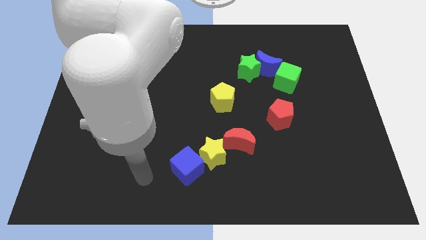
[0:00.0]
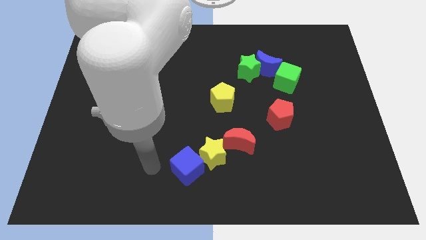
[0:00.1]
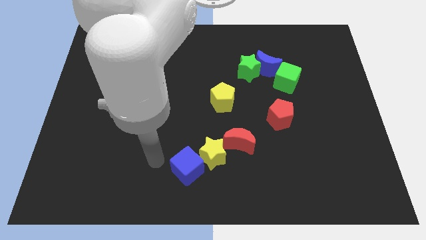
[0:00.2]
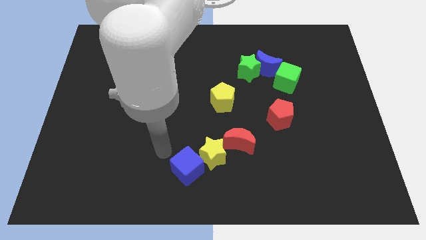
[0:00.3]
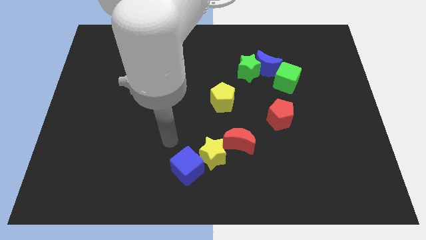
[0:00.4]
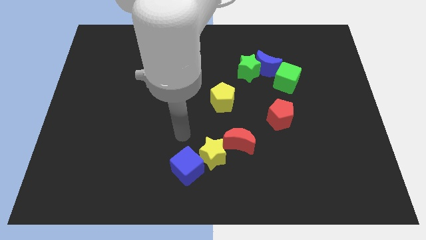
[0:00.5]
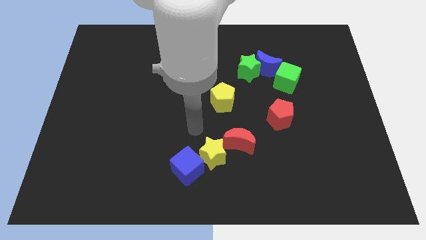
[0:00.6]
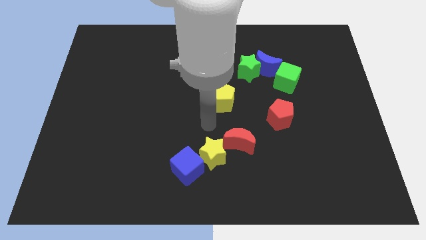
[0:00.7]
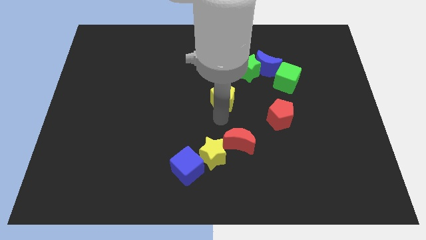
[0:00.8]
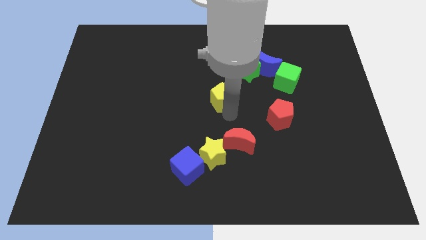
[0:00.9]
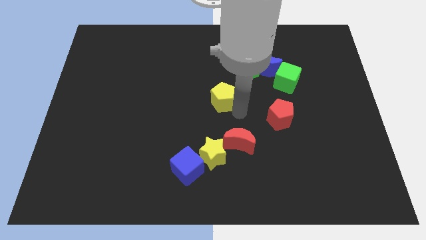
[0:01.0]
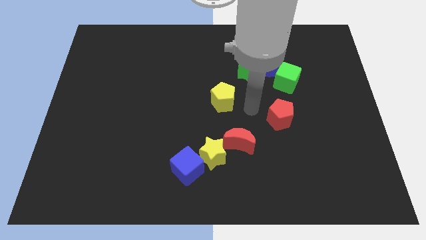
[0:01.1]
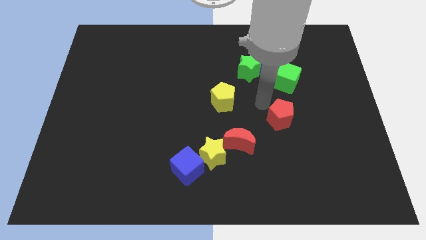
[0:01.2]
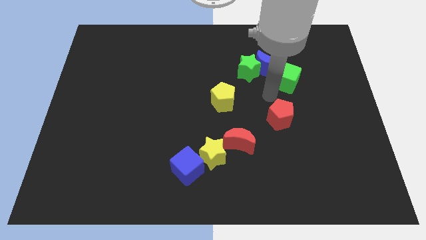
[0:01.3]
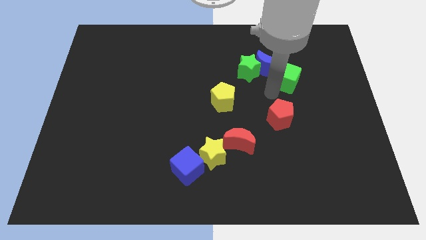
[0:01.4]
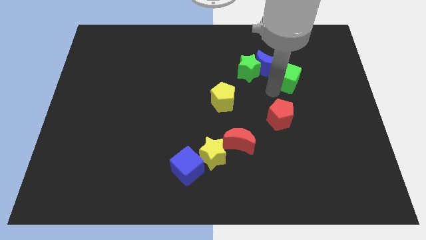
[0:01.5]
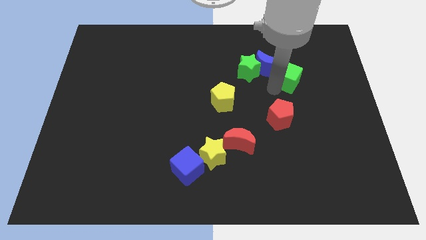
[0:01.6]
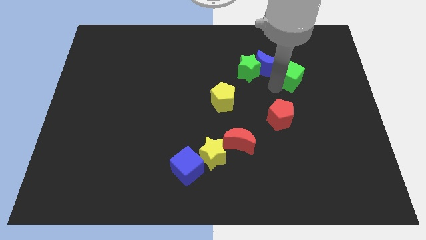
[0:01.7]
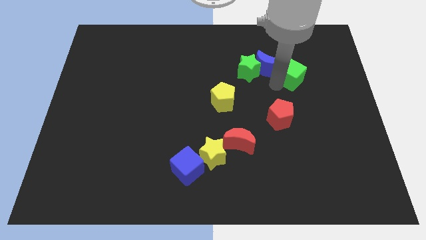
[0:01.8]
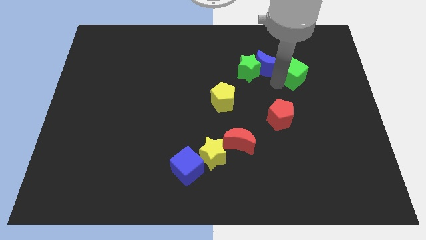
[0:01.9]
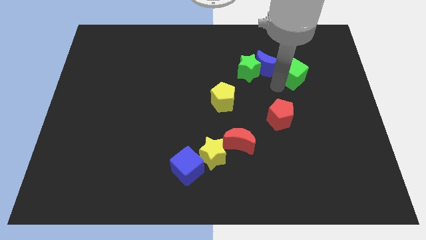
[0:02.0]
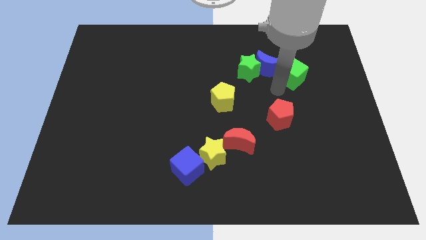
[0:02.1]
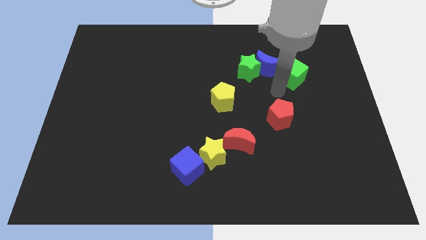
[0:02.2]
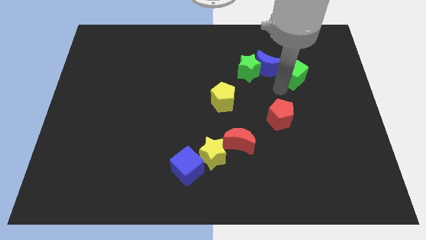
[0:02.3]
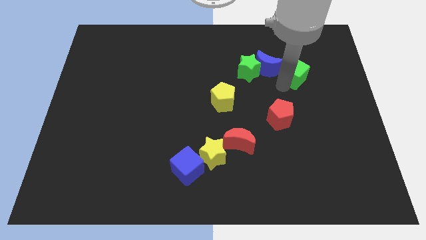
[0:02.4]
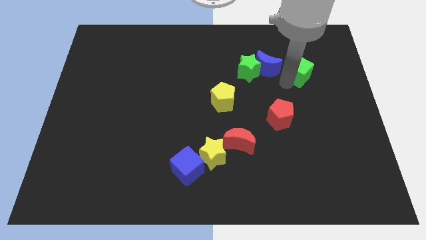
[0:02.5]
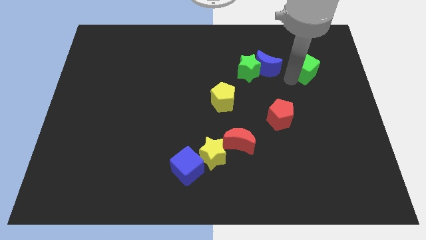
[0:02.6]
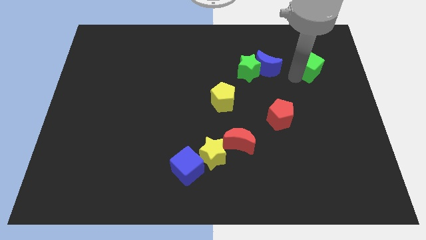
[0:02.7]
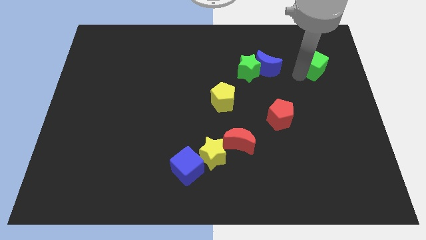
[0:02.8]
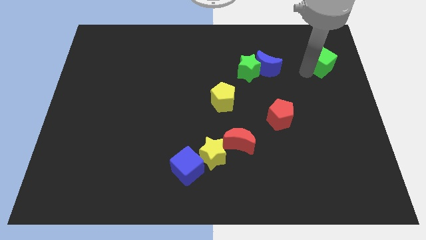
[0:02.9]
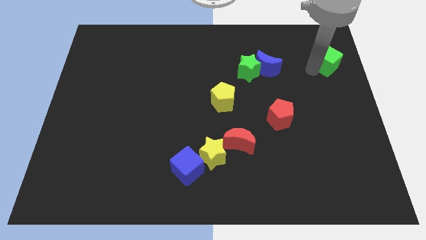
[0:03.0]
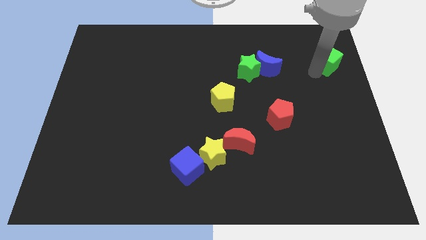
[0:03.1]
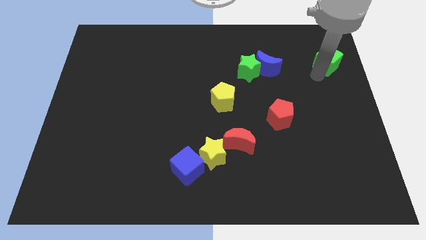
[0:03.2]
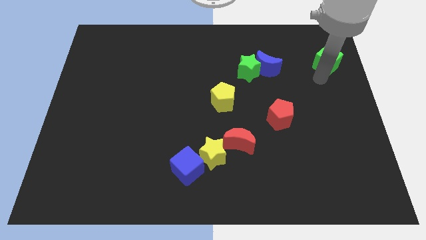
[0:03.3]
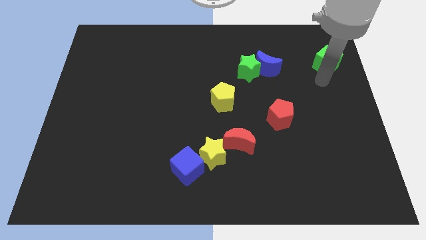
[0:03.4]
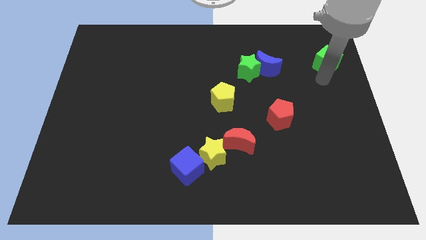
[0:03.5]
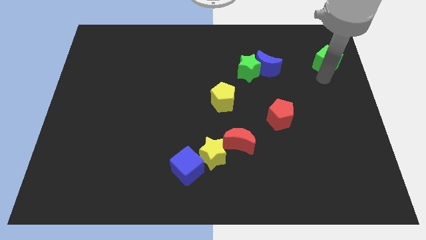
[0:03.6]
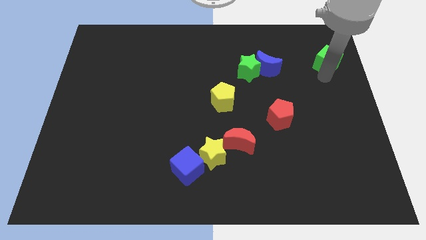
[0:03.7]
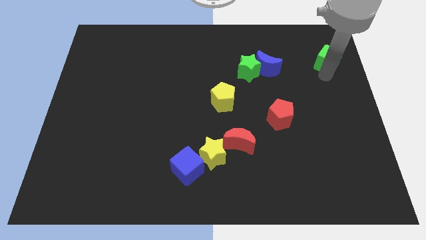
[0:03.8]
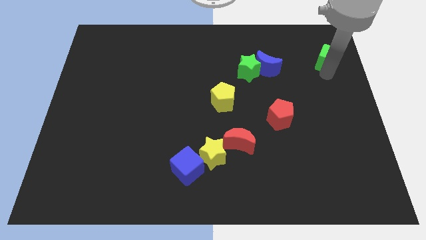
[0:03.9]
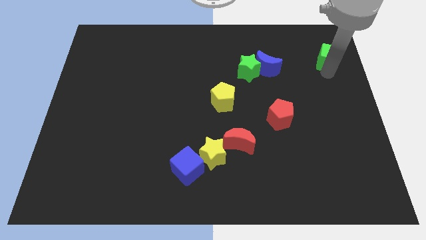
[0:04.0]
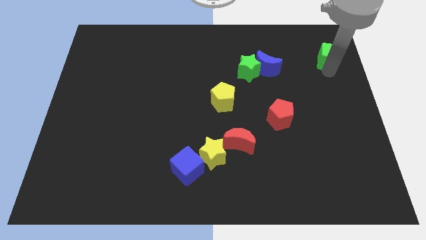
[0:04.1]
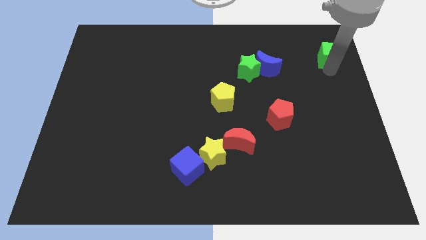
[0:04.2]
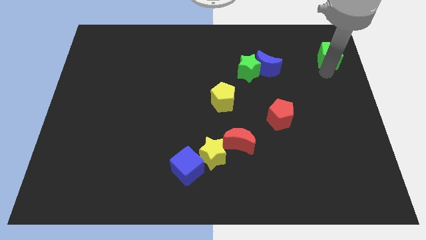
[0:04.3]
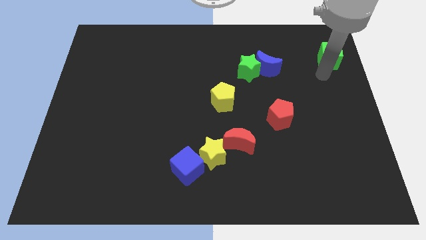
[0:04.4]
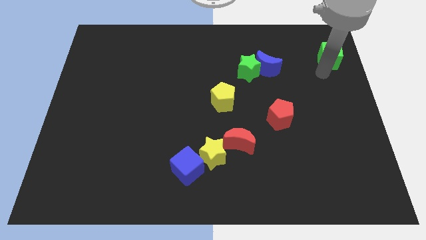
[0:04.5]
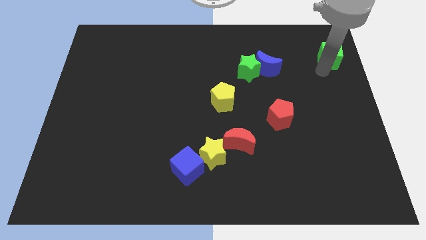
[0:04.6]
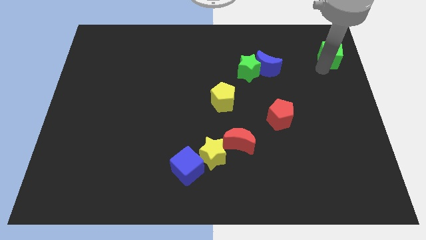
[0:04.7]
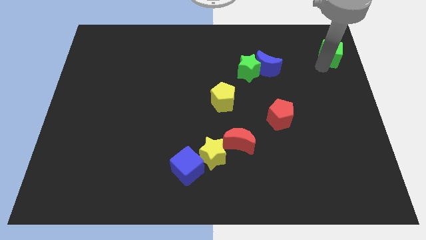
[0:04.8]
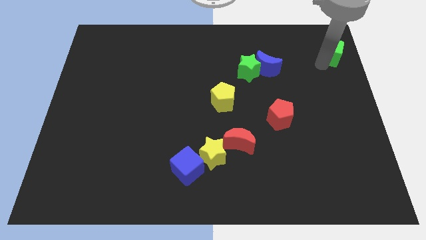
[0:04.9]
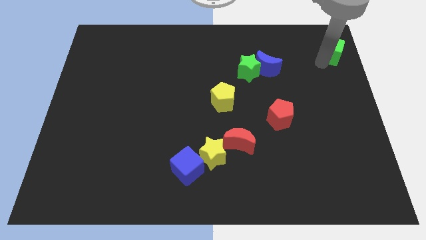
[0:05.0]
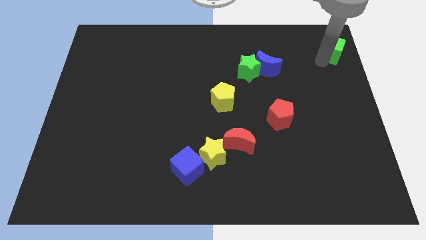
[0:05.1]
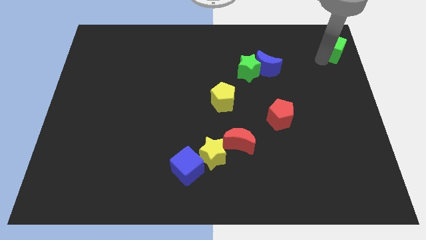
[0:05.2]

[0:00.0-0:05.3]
push the green cube to the top right corner

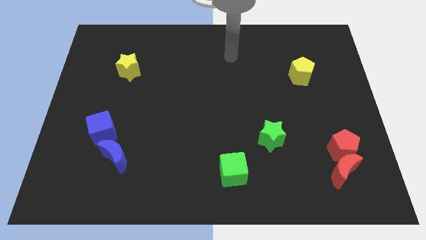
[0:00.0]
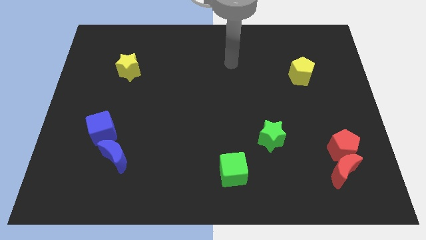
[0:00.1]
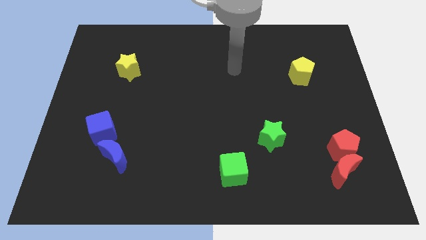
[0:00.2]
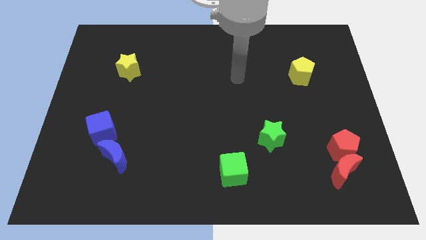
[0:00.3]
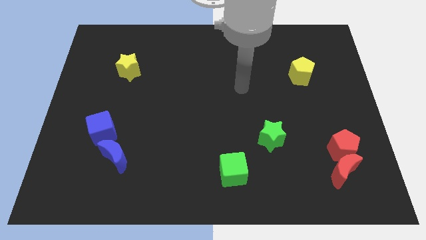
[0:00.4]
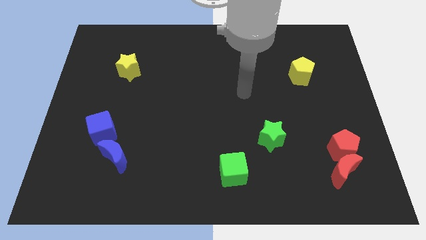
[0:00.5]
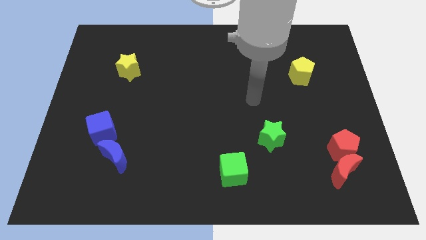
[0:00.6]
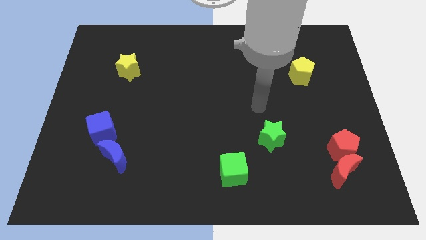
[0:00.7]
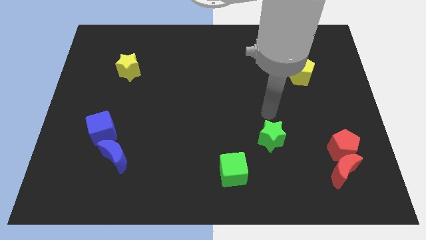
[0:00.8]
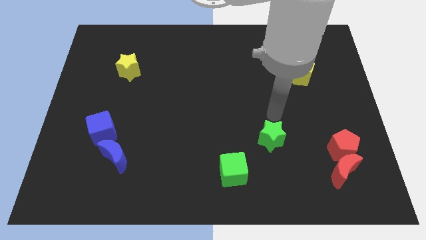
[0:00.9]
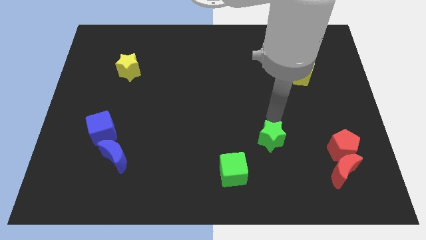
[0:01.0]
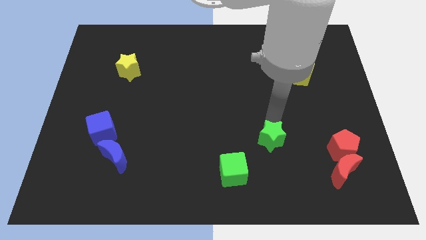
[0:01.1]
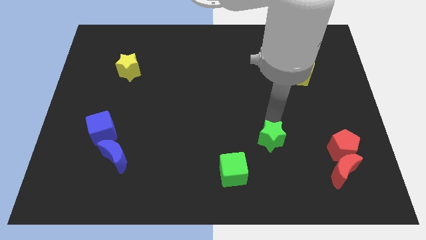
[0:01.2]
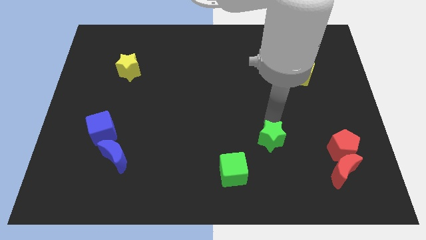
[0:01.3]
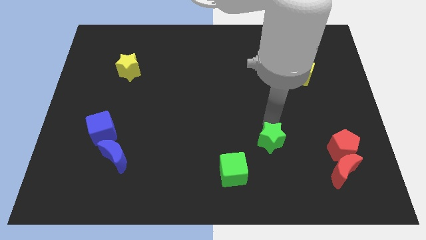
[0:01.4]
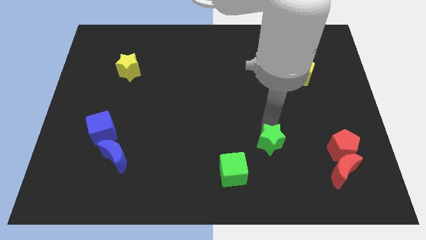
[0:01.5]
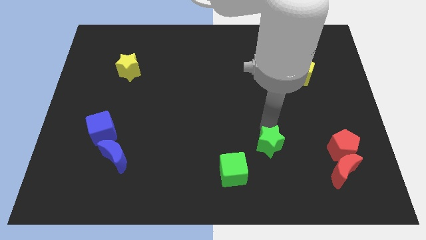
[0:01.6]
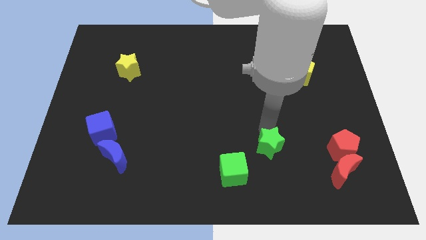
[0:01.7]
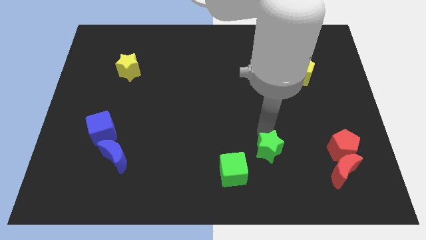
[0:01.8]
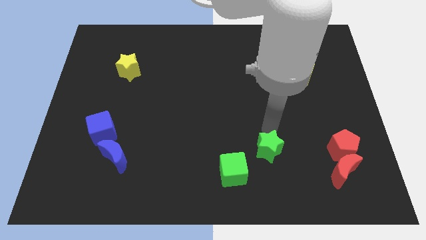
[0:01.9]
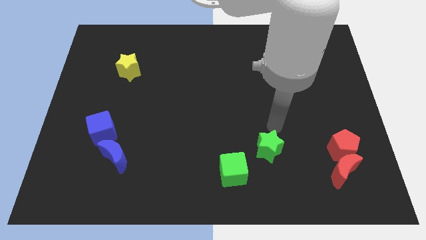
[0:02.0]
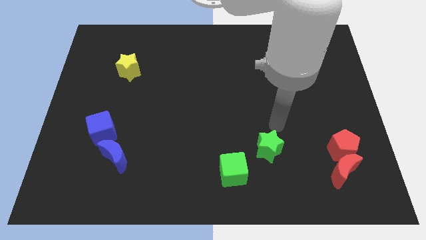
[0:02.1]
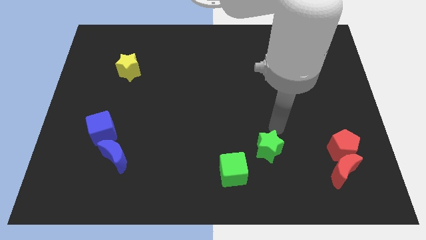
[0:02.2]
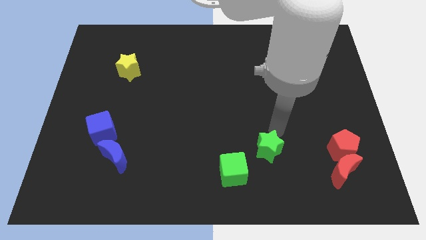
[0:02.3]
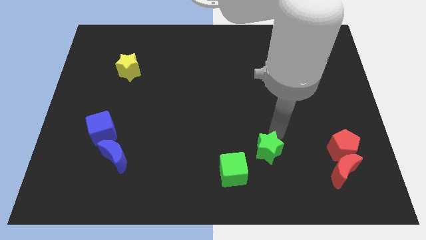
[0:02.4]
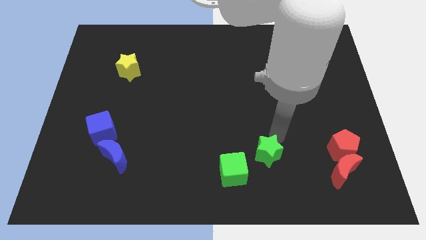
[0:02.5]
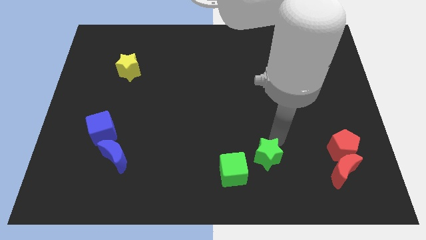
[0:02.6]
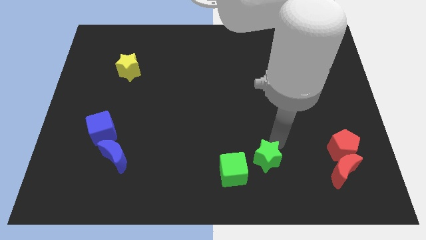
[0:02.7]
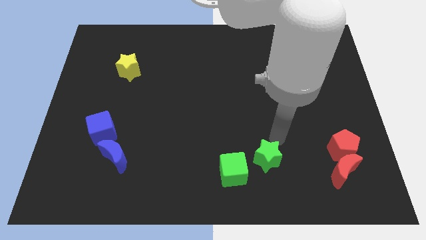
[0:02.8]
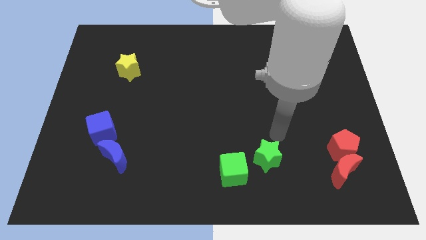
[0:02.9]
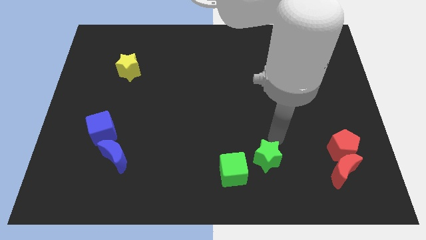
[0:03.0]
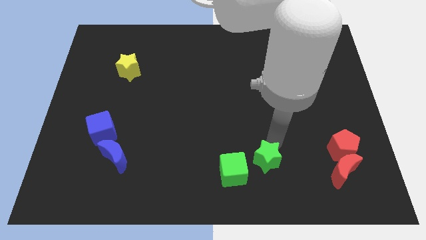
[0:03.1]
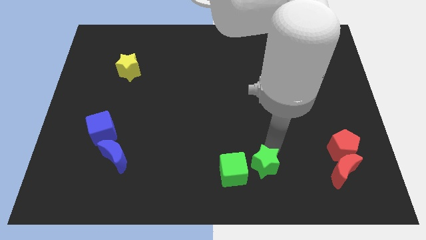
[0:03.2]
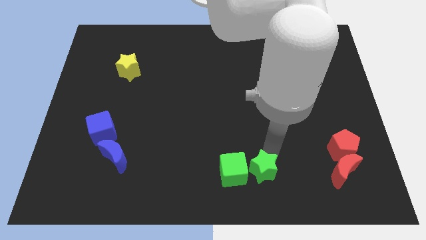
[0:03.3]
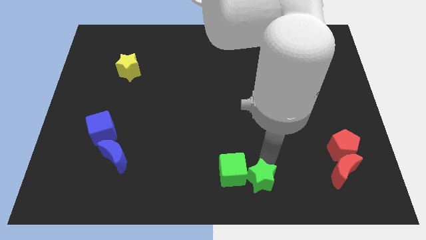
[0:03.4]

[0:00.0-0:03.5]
move the green star to the bottom
